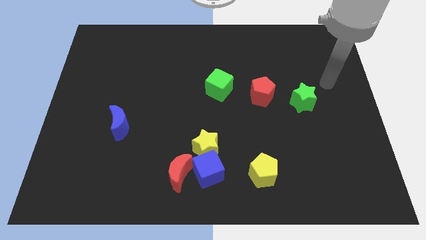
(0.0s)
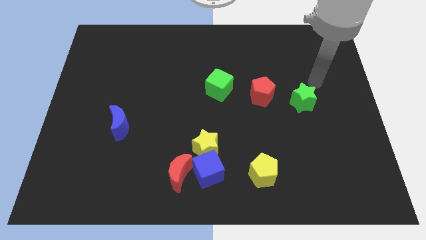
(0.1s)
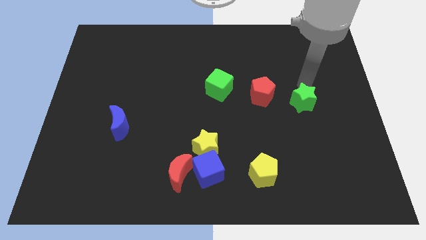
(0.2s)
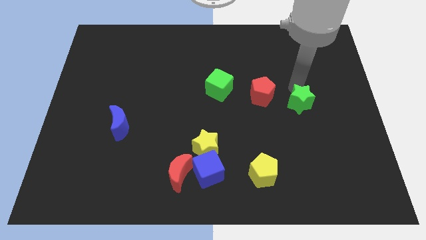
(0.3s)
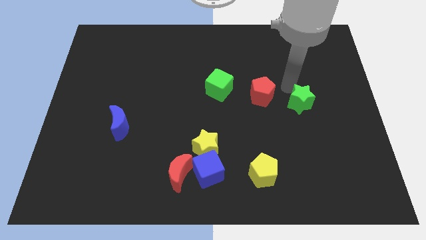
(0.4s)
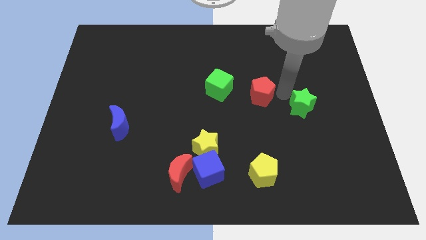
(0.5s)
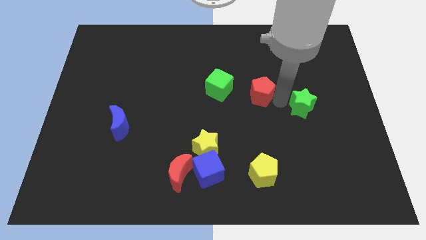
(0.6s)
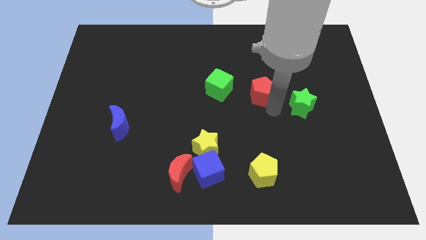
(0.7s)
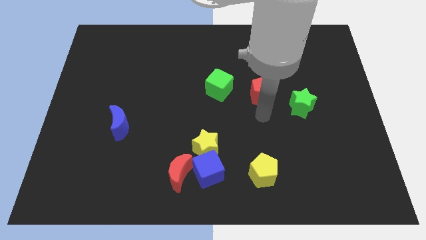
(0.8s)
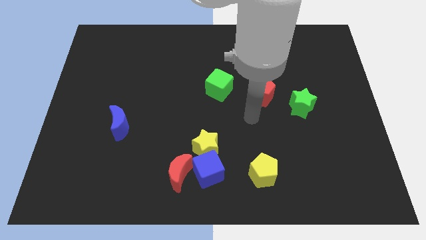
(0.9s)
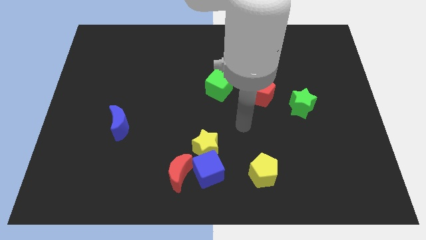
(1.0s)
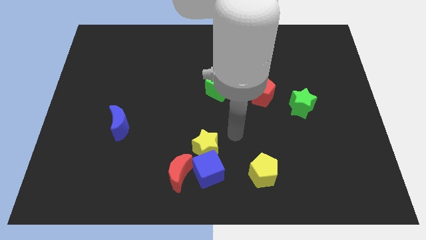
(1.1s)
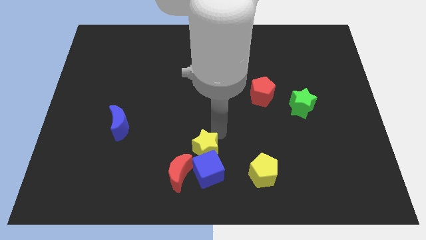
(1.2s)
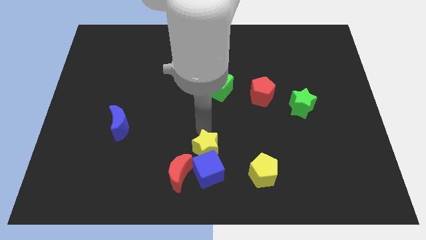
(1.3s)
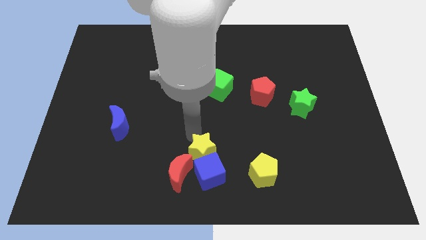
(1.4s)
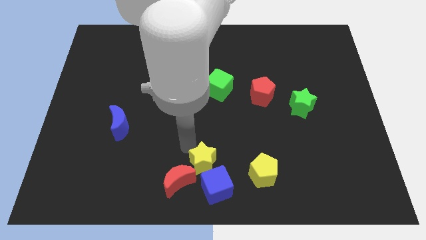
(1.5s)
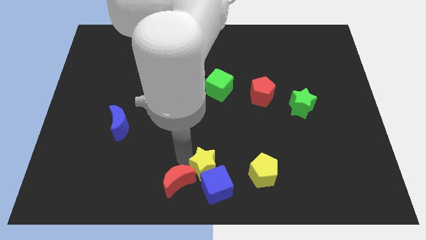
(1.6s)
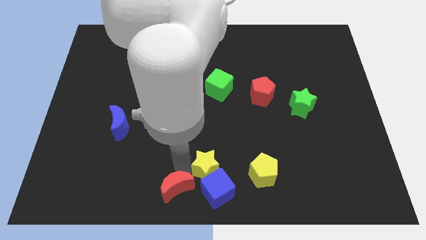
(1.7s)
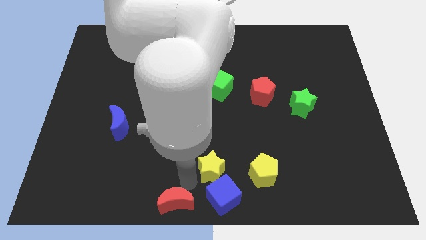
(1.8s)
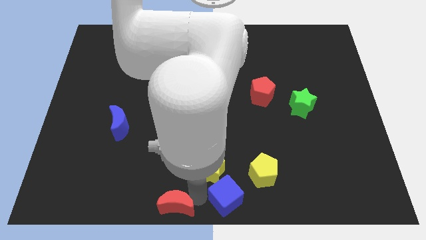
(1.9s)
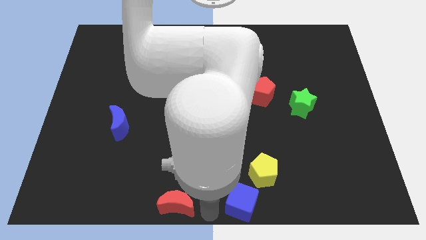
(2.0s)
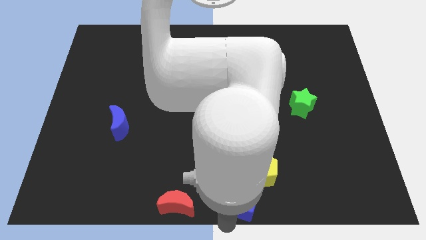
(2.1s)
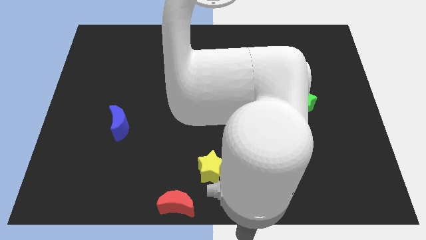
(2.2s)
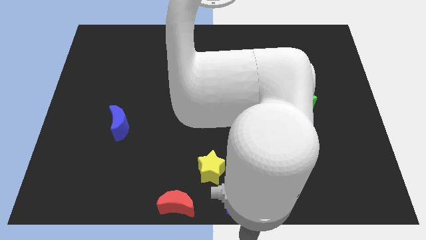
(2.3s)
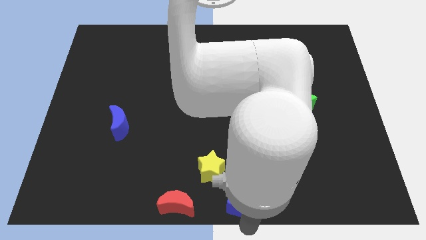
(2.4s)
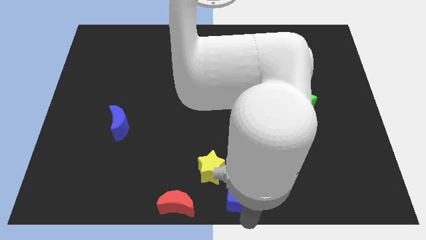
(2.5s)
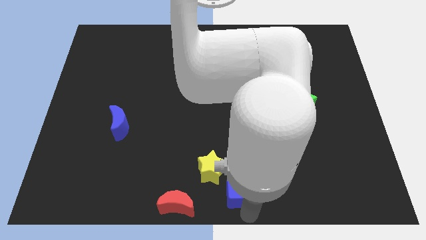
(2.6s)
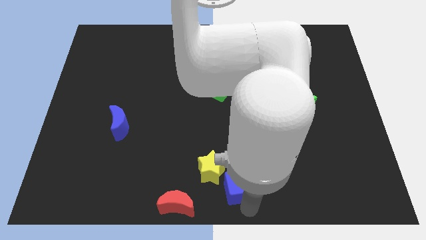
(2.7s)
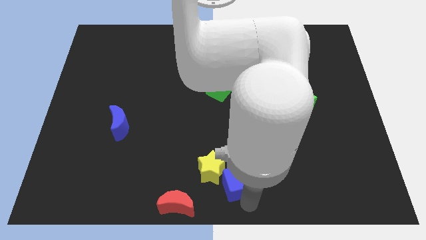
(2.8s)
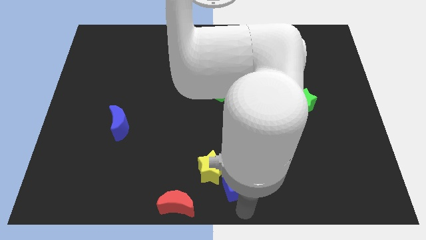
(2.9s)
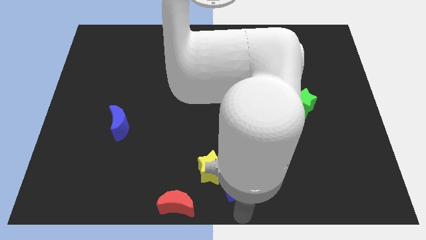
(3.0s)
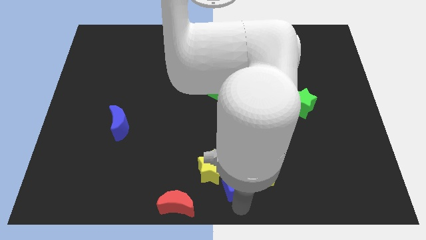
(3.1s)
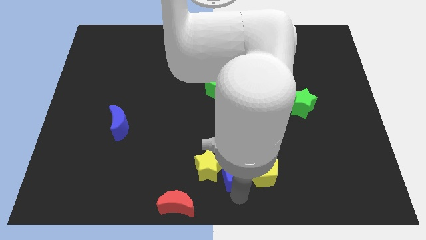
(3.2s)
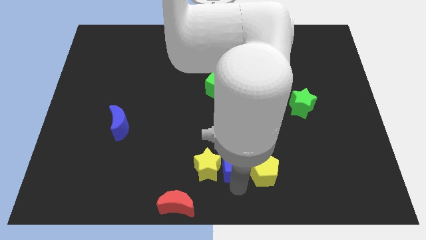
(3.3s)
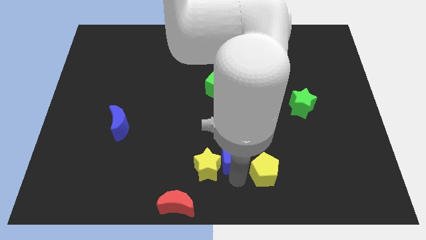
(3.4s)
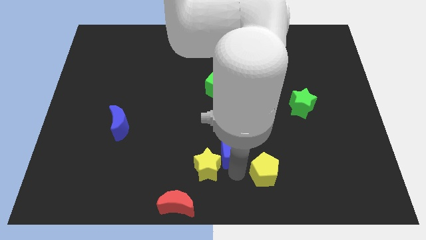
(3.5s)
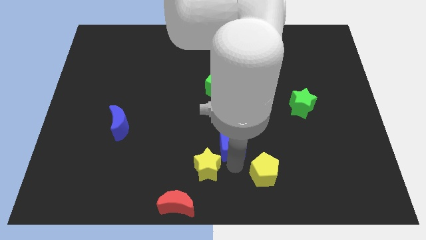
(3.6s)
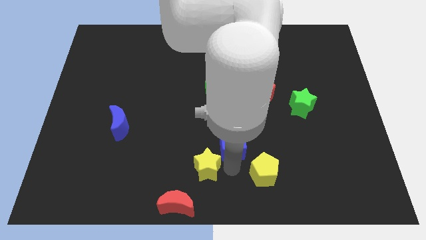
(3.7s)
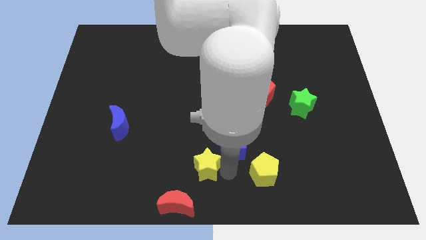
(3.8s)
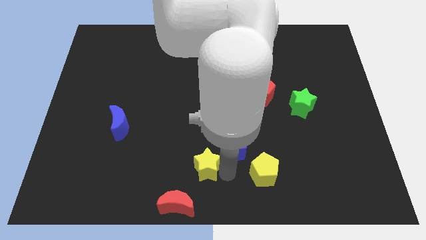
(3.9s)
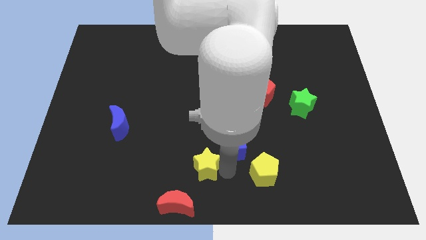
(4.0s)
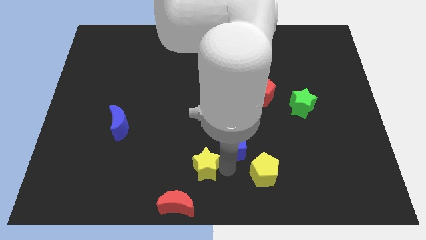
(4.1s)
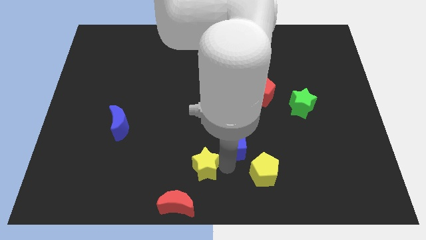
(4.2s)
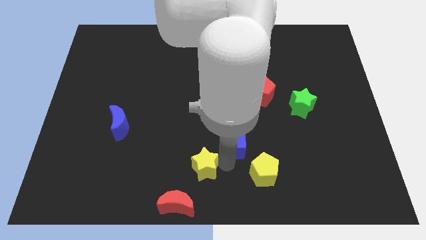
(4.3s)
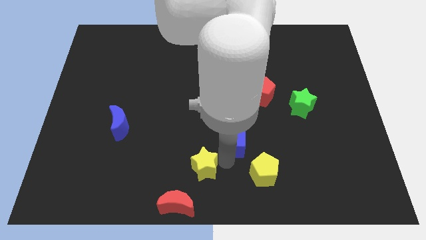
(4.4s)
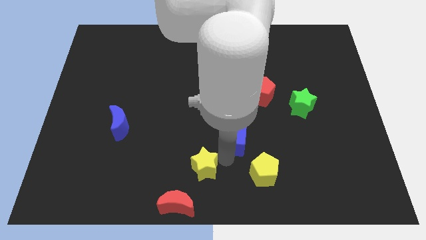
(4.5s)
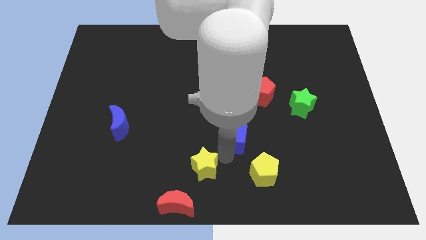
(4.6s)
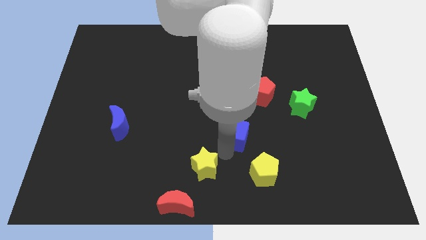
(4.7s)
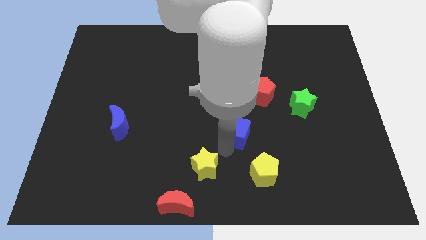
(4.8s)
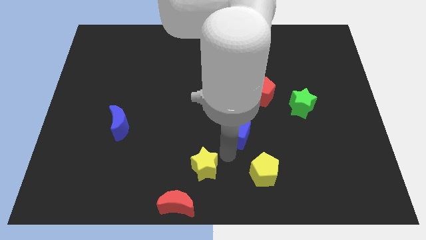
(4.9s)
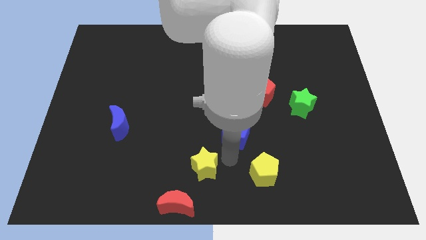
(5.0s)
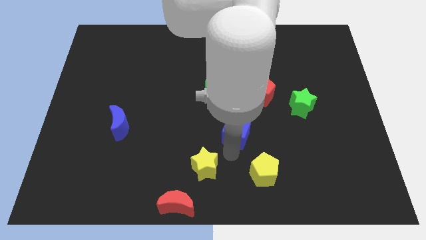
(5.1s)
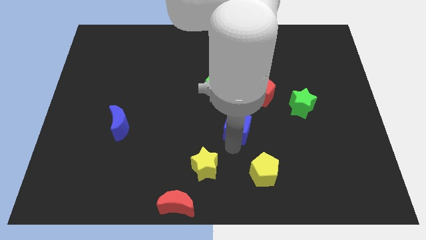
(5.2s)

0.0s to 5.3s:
move the blue cube to the bottom left side of the red pentagon

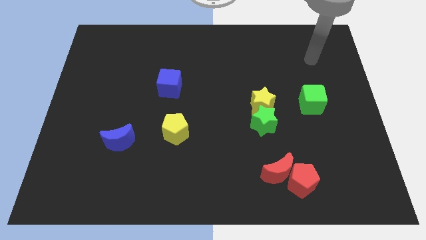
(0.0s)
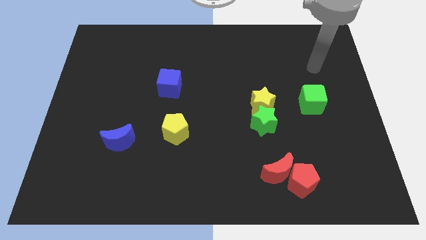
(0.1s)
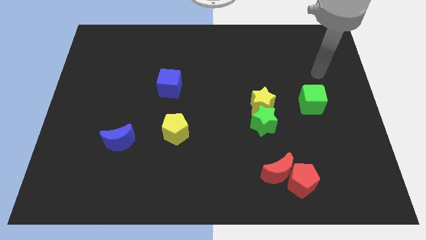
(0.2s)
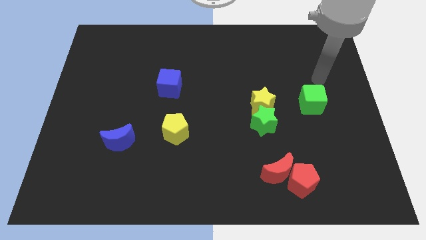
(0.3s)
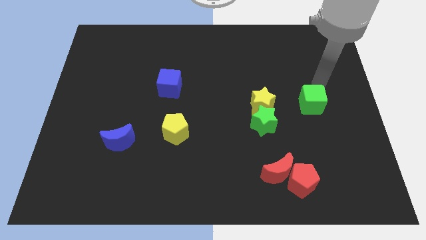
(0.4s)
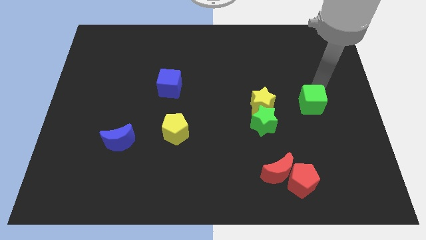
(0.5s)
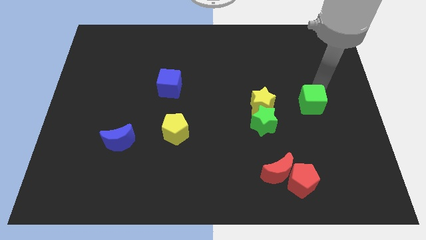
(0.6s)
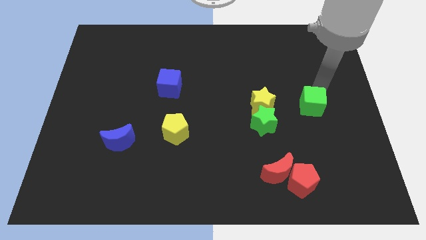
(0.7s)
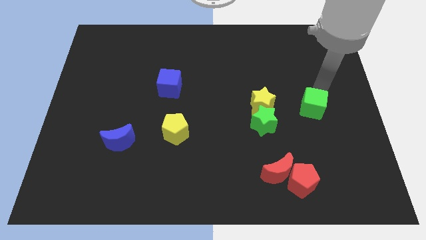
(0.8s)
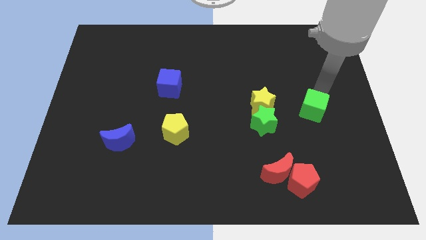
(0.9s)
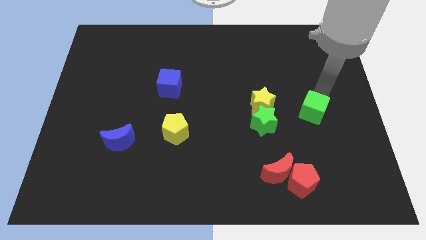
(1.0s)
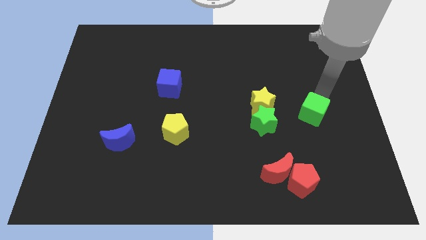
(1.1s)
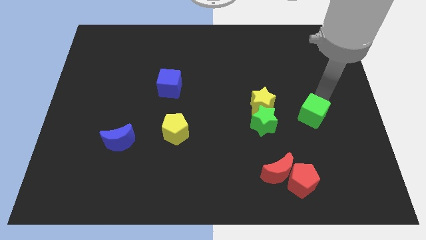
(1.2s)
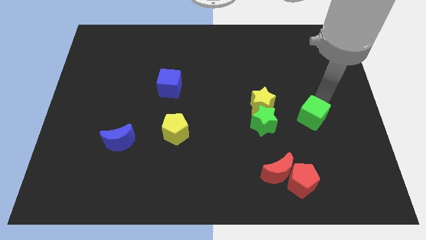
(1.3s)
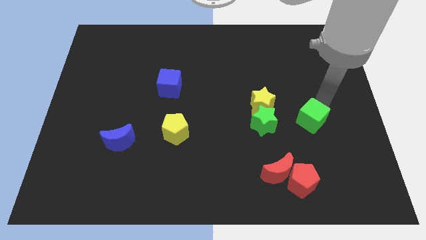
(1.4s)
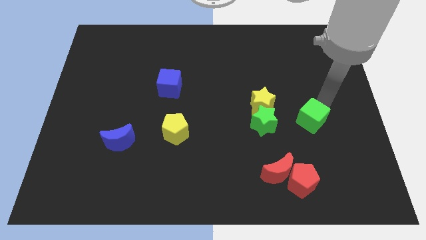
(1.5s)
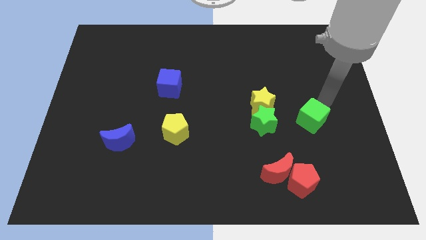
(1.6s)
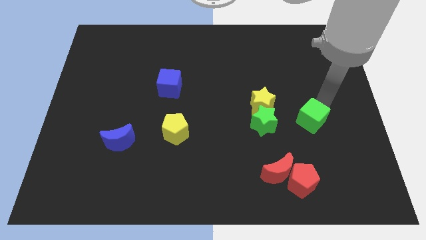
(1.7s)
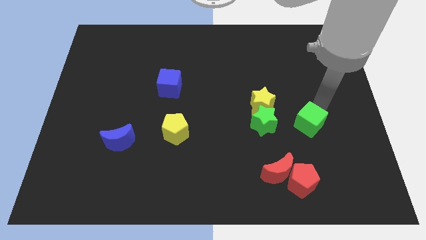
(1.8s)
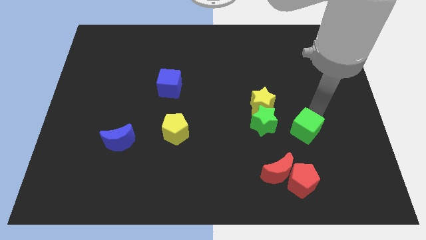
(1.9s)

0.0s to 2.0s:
put the green cube to the top side of the red pentagon
